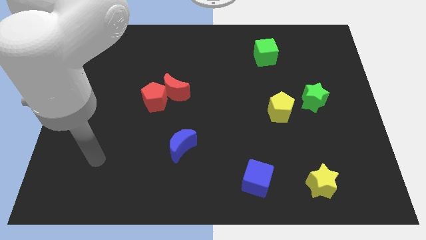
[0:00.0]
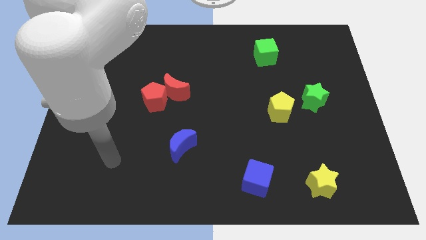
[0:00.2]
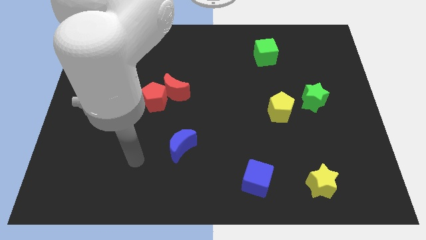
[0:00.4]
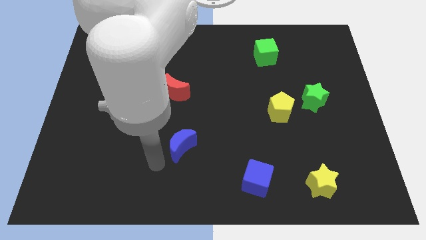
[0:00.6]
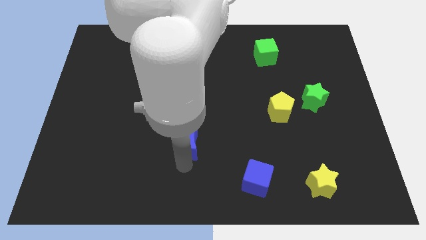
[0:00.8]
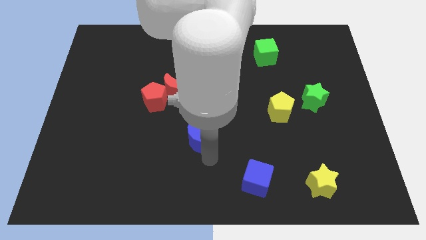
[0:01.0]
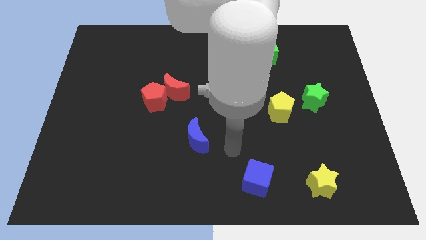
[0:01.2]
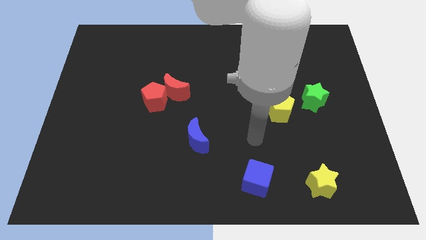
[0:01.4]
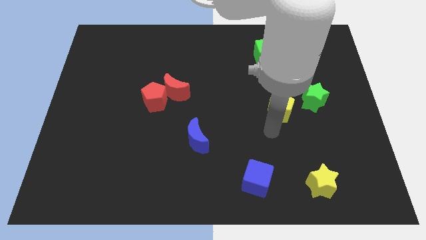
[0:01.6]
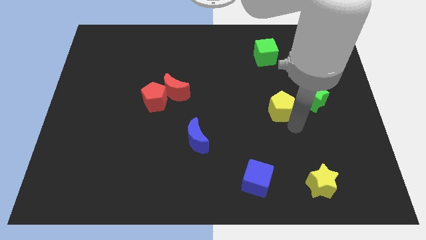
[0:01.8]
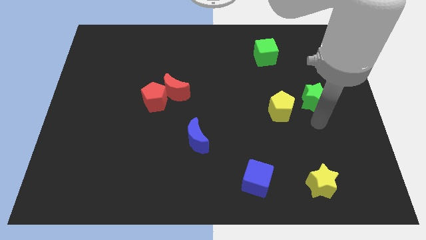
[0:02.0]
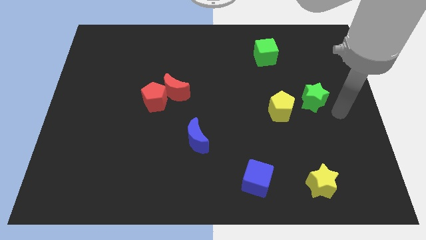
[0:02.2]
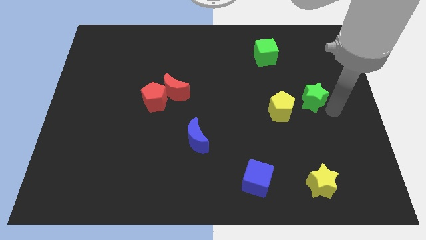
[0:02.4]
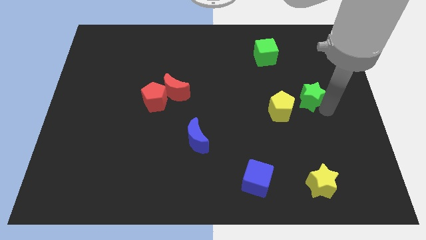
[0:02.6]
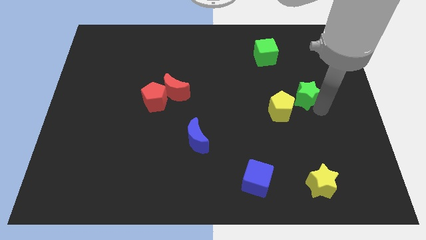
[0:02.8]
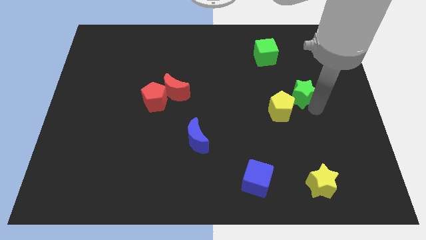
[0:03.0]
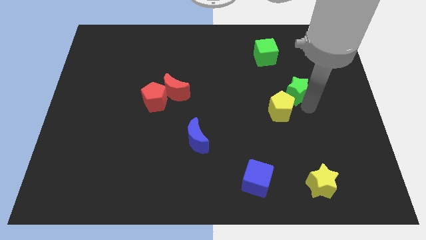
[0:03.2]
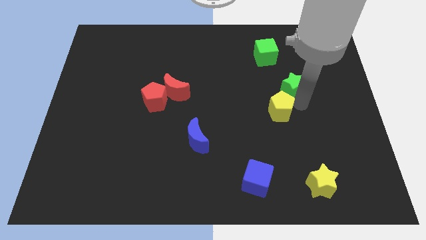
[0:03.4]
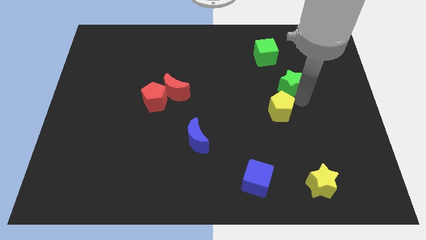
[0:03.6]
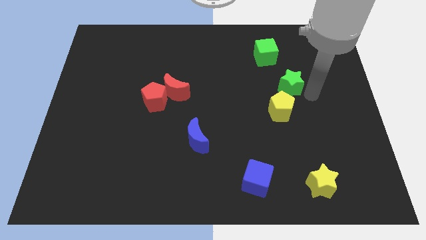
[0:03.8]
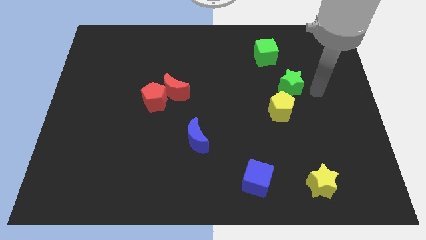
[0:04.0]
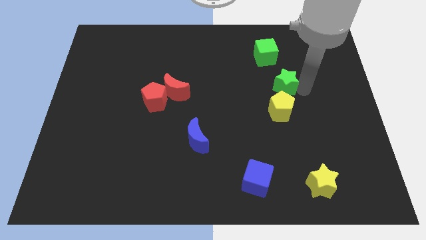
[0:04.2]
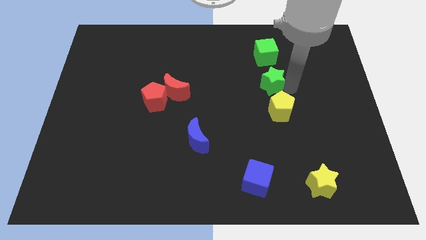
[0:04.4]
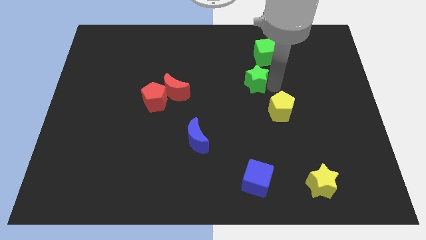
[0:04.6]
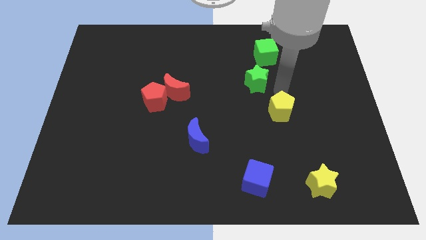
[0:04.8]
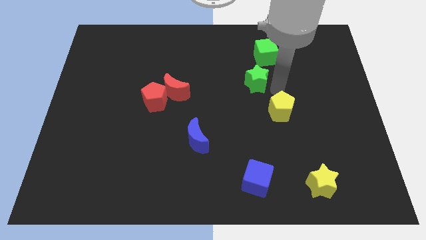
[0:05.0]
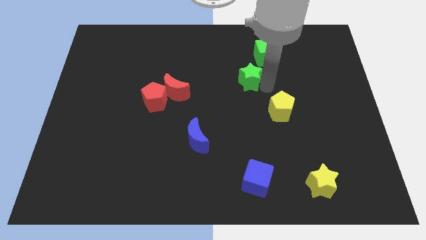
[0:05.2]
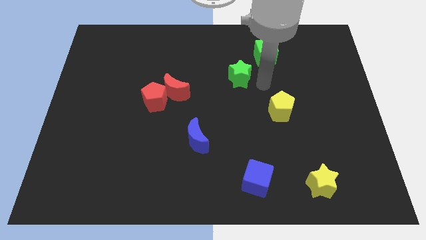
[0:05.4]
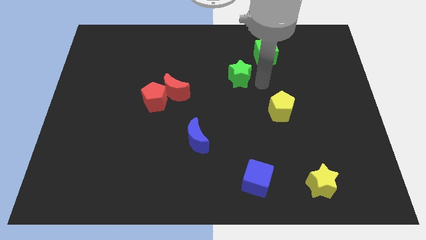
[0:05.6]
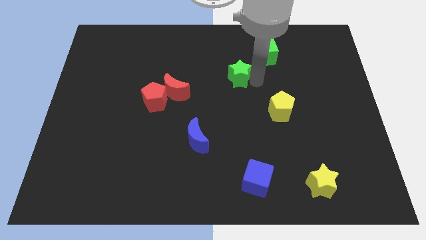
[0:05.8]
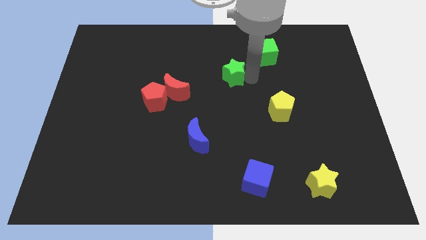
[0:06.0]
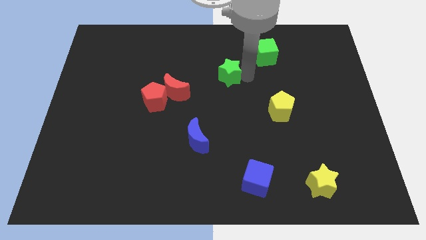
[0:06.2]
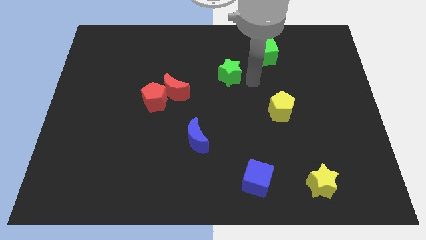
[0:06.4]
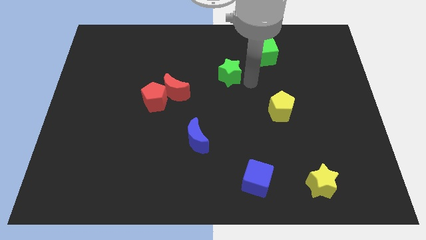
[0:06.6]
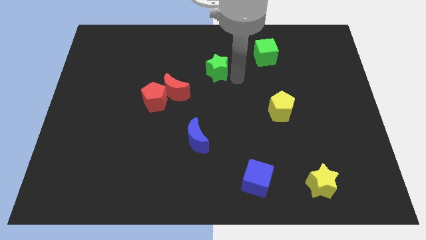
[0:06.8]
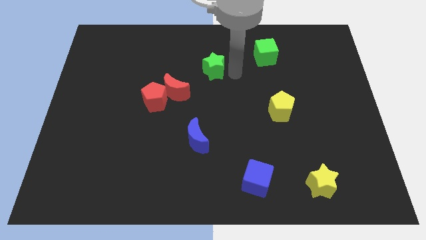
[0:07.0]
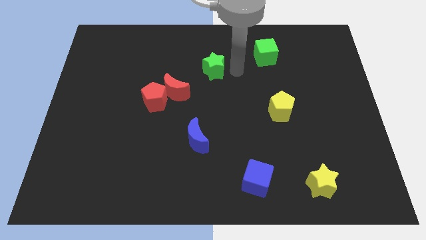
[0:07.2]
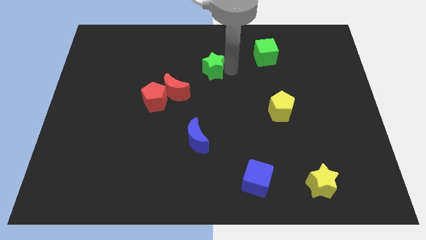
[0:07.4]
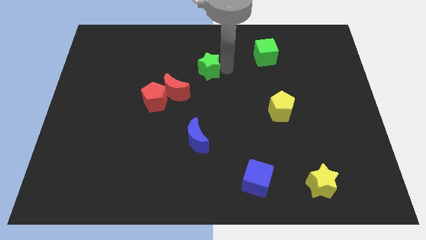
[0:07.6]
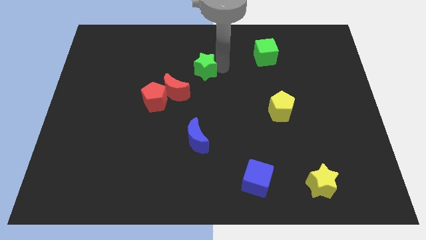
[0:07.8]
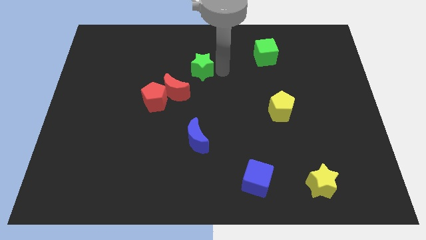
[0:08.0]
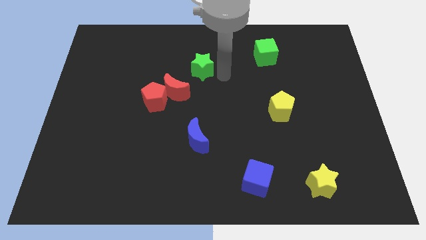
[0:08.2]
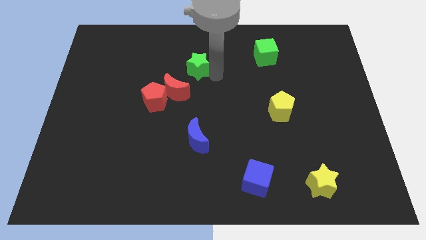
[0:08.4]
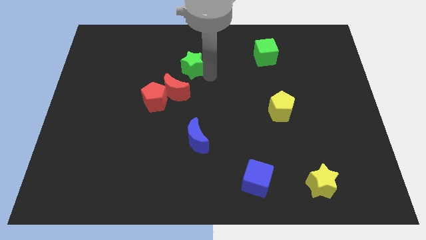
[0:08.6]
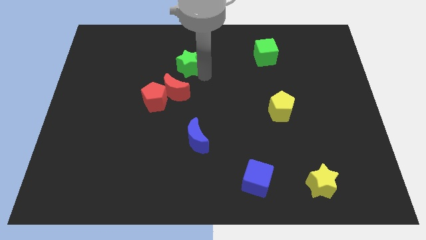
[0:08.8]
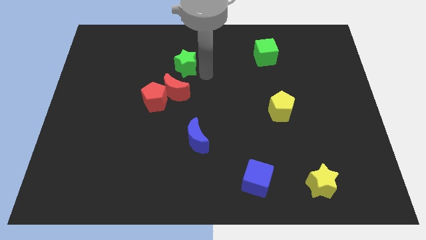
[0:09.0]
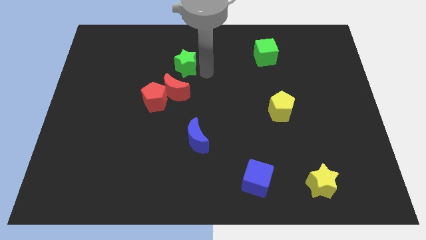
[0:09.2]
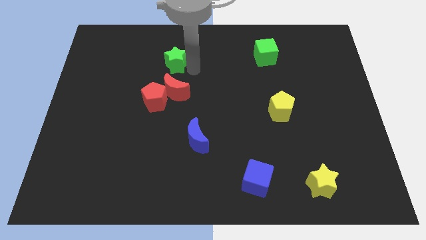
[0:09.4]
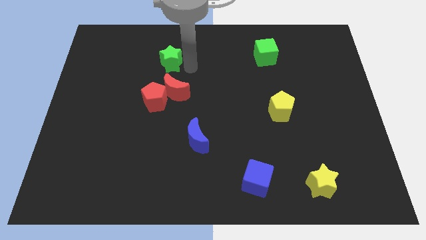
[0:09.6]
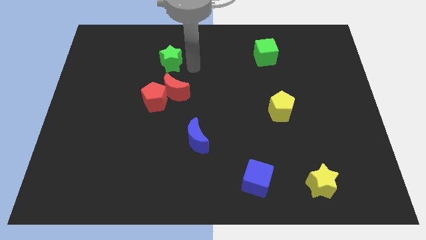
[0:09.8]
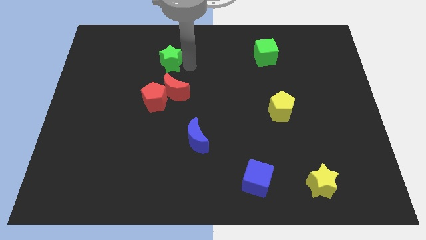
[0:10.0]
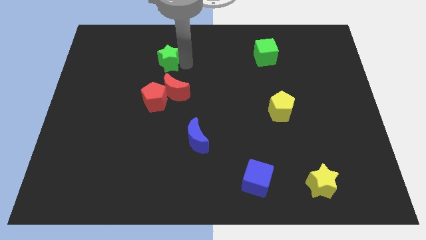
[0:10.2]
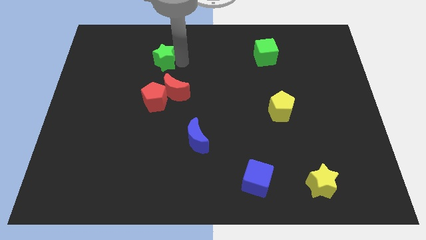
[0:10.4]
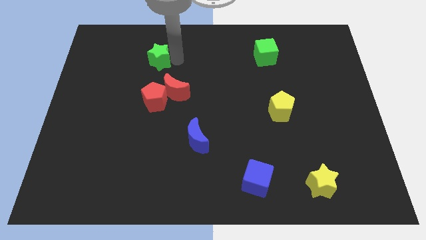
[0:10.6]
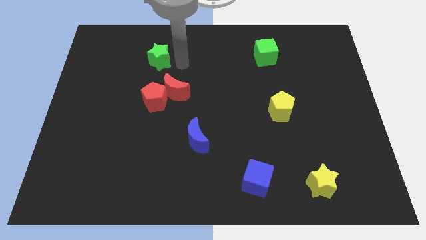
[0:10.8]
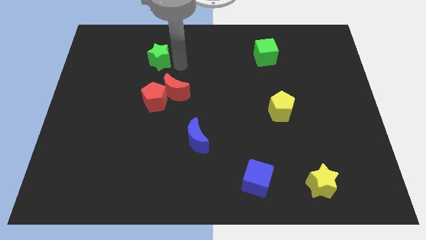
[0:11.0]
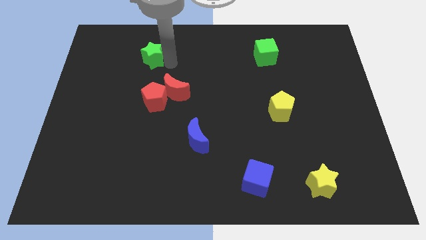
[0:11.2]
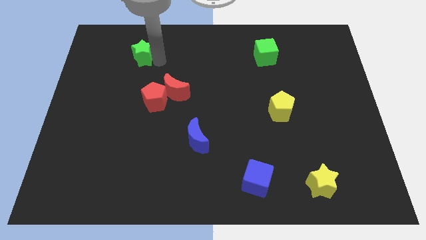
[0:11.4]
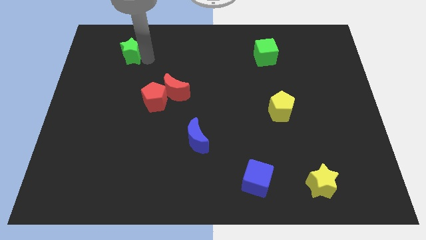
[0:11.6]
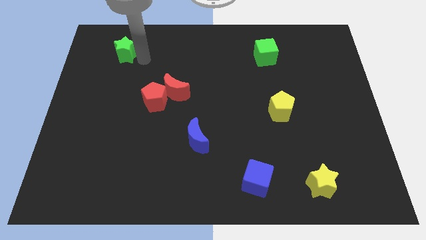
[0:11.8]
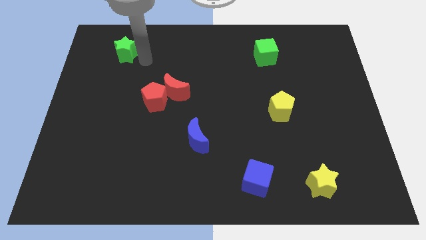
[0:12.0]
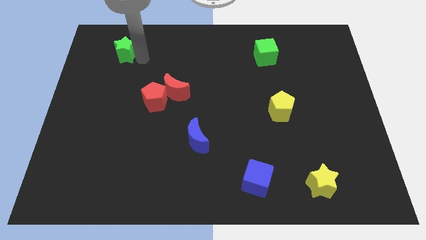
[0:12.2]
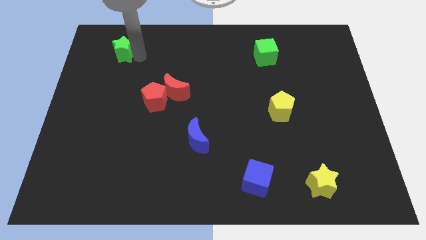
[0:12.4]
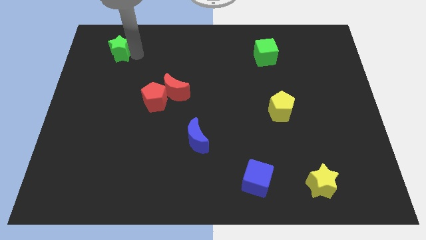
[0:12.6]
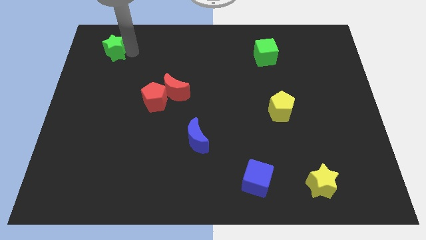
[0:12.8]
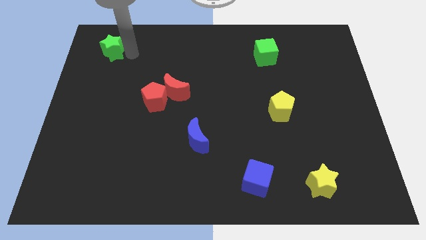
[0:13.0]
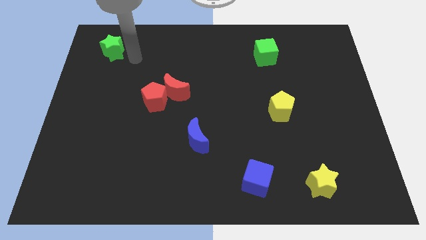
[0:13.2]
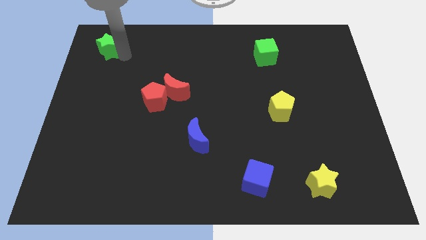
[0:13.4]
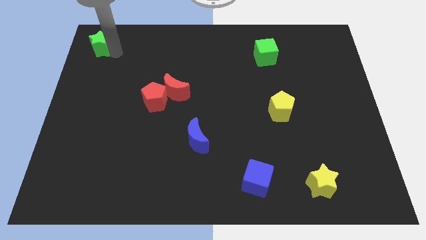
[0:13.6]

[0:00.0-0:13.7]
push the green star to the top left of the board
